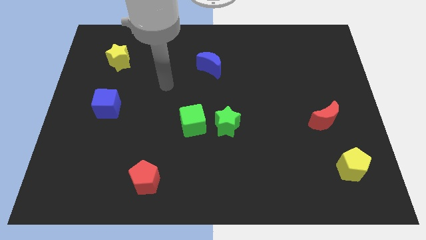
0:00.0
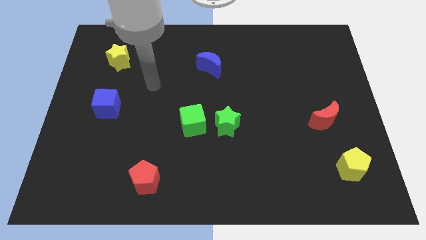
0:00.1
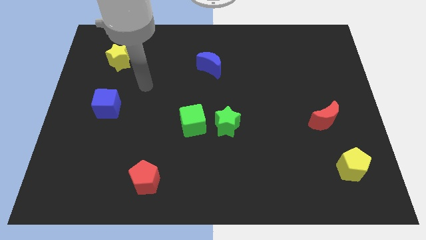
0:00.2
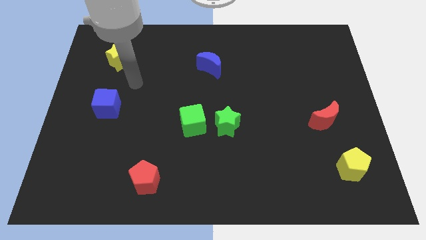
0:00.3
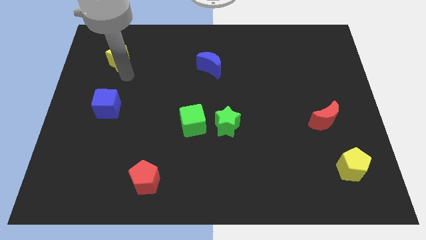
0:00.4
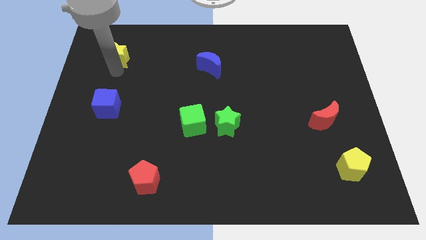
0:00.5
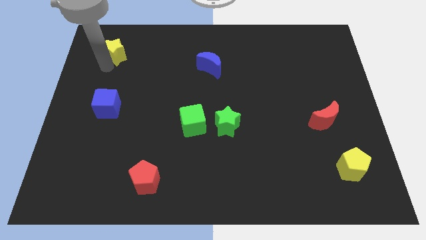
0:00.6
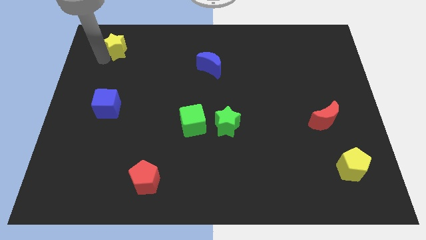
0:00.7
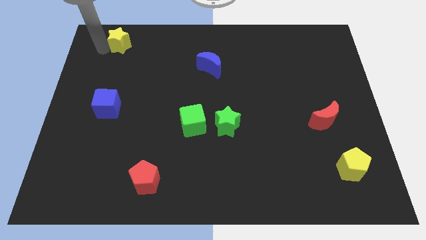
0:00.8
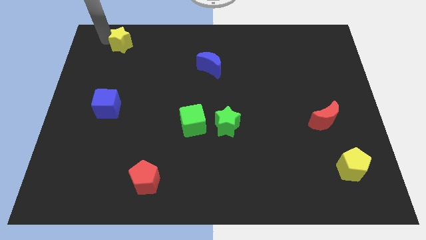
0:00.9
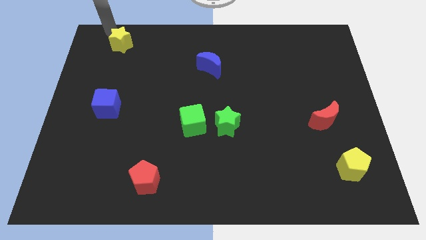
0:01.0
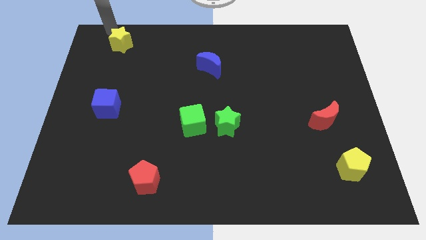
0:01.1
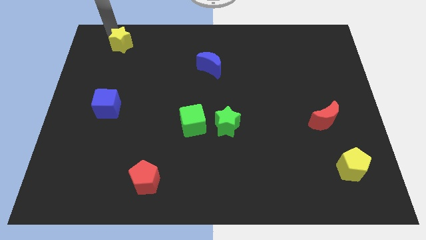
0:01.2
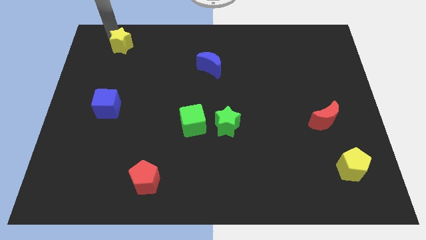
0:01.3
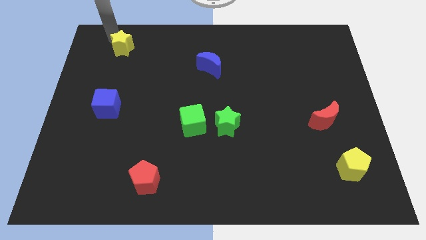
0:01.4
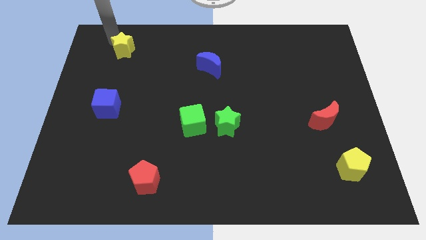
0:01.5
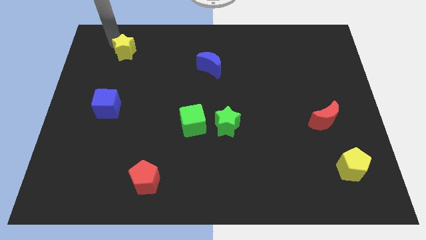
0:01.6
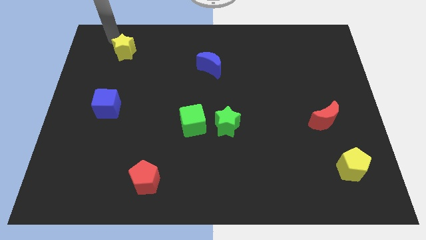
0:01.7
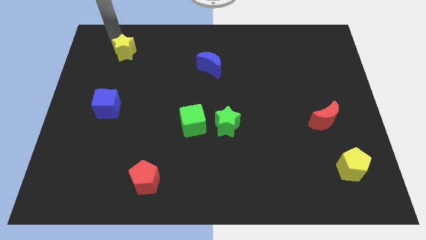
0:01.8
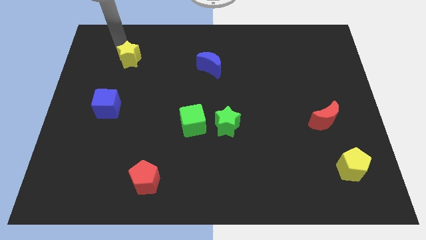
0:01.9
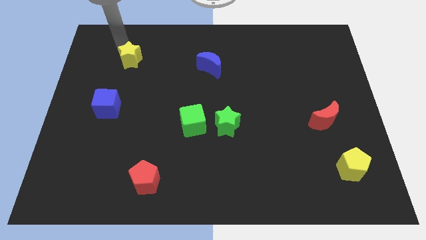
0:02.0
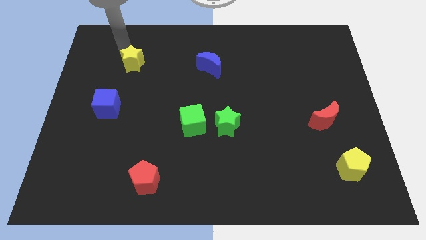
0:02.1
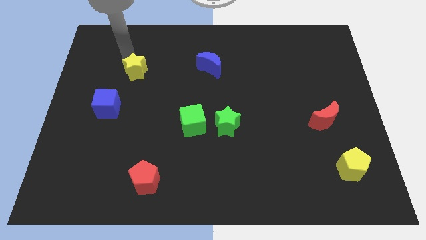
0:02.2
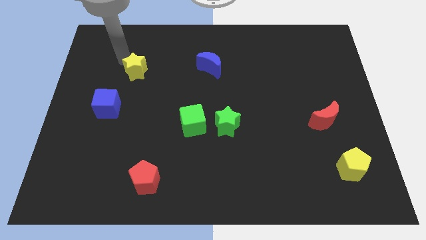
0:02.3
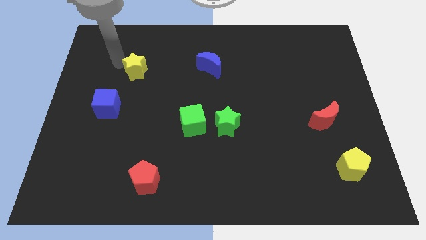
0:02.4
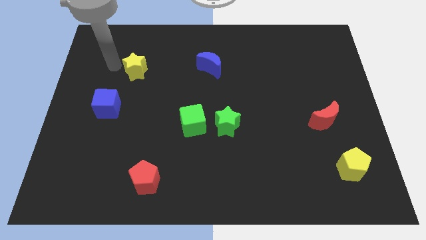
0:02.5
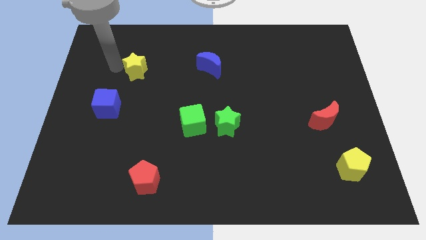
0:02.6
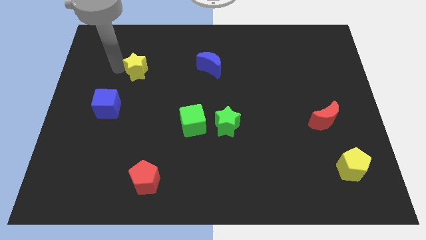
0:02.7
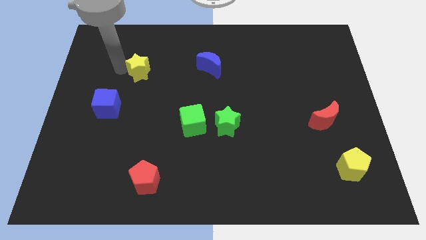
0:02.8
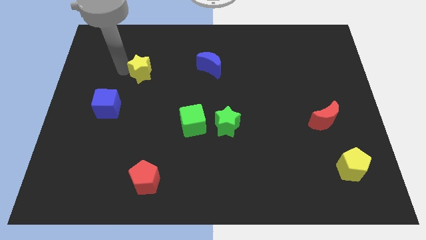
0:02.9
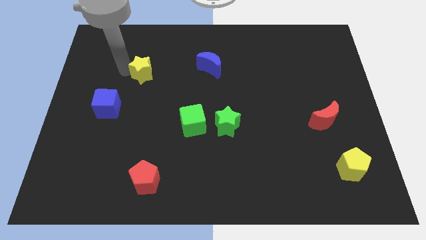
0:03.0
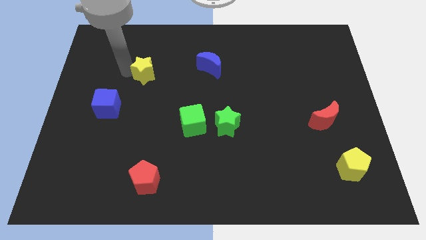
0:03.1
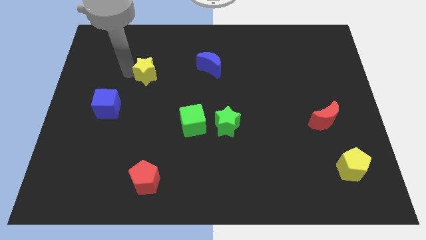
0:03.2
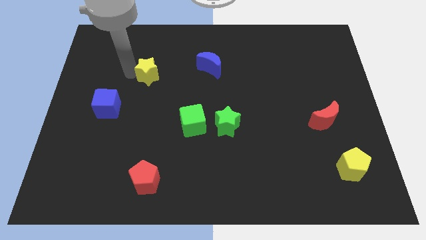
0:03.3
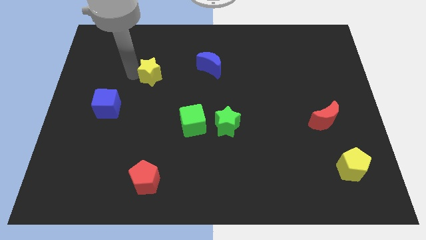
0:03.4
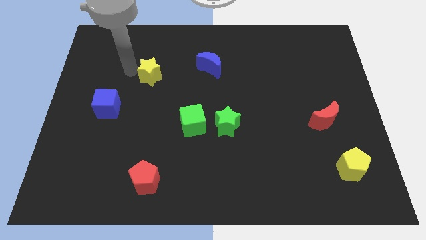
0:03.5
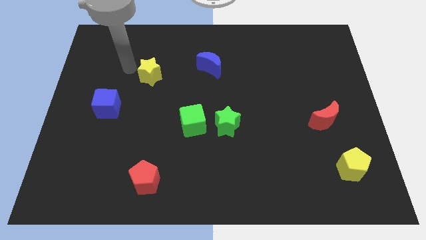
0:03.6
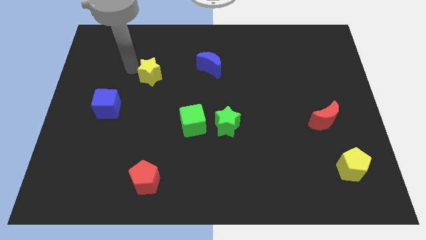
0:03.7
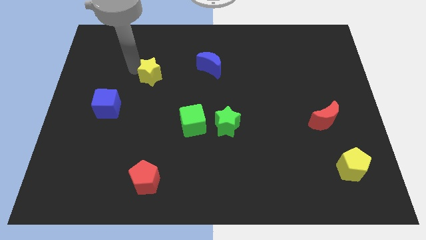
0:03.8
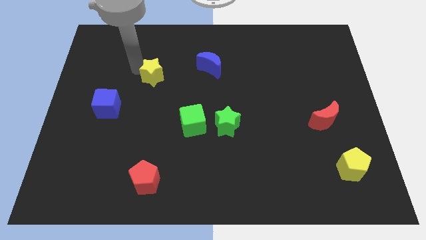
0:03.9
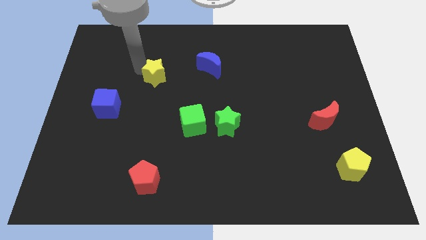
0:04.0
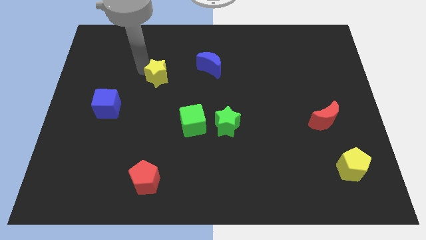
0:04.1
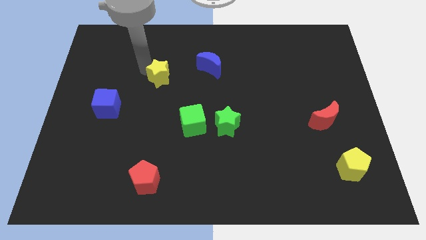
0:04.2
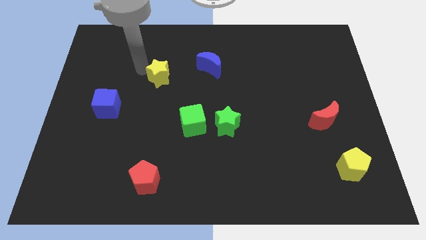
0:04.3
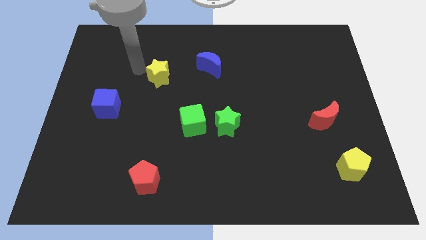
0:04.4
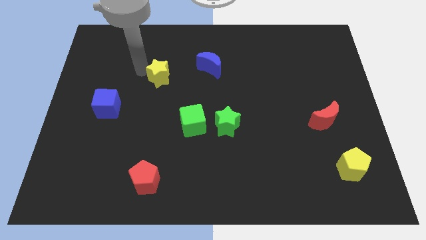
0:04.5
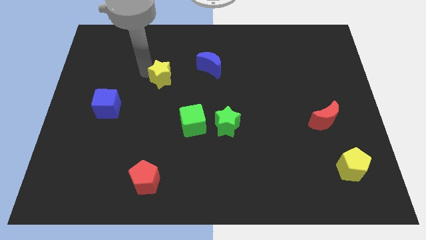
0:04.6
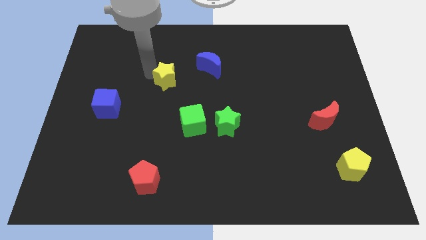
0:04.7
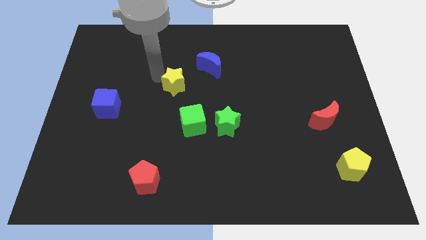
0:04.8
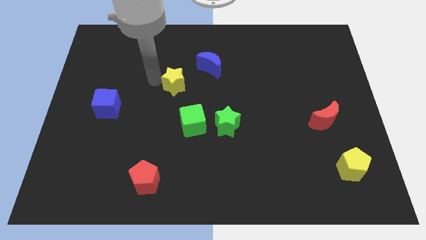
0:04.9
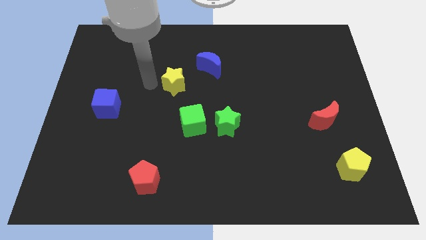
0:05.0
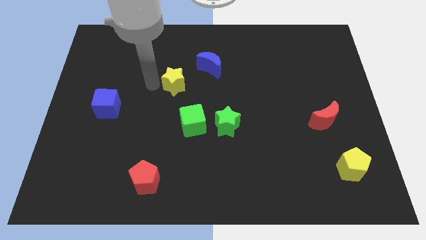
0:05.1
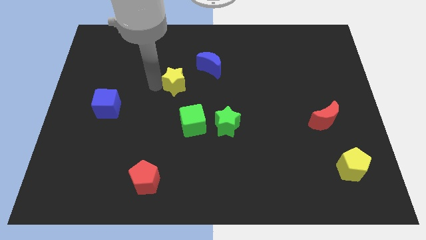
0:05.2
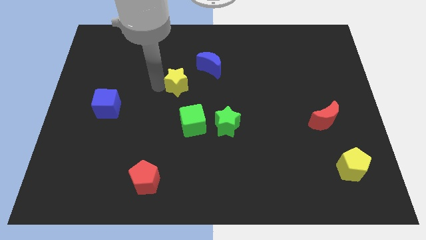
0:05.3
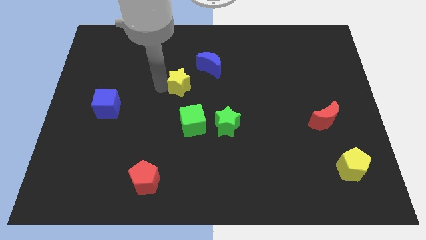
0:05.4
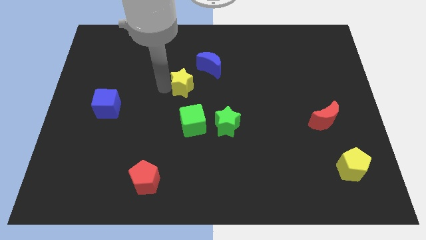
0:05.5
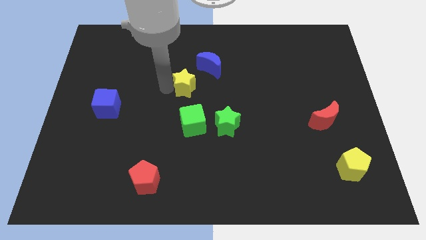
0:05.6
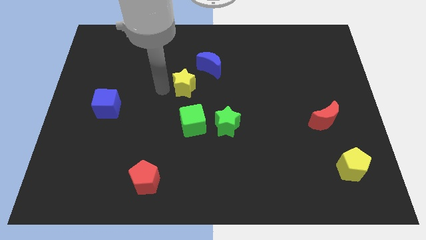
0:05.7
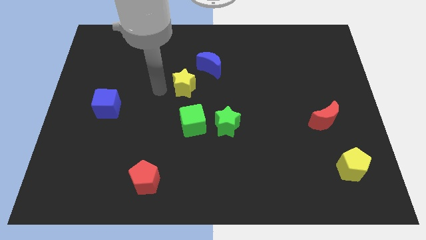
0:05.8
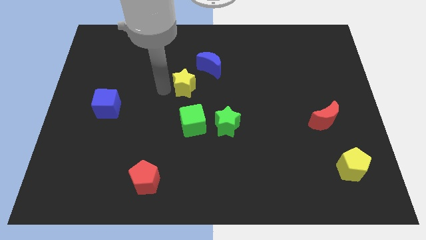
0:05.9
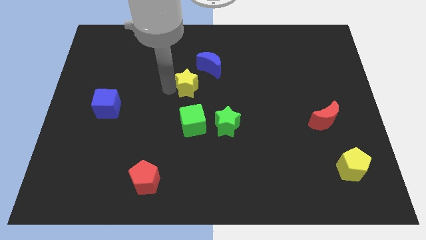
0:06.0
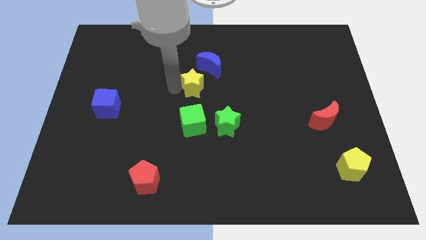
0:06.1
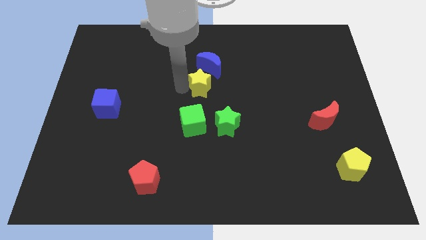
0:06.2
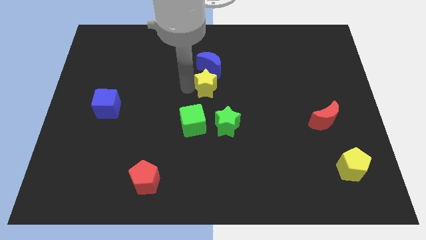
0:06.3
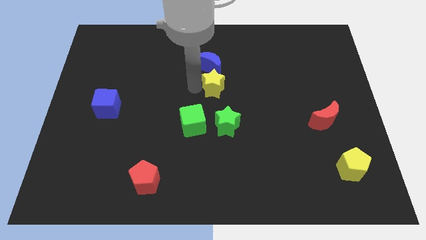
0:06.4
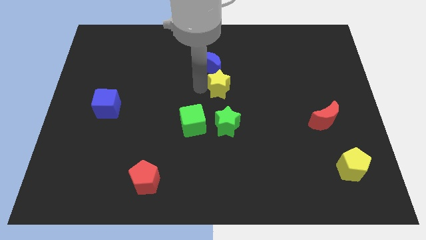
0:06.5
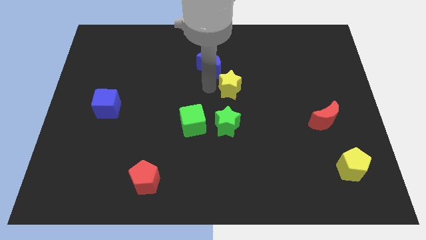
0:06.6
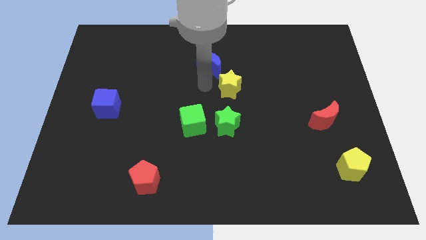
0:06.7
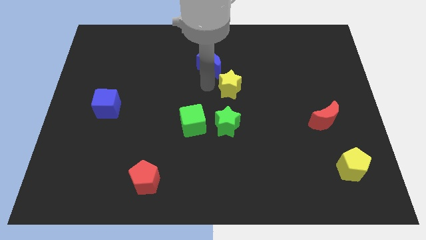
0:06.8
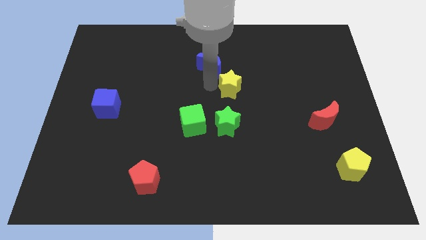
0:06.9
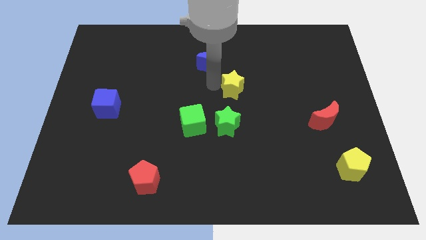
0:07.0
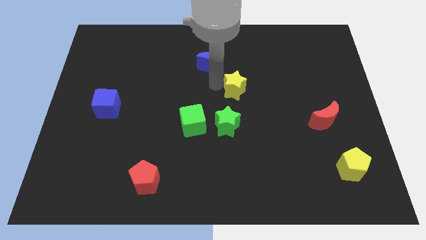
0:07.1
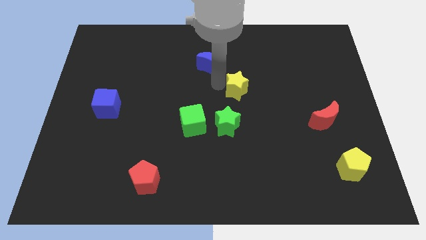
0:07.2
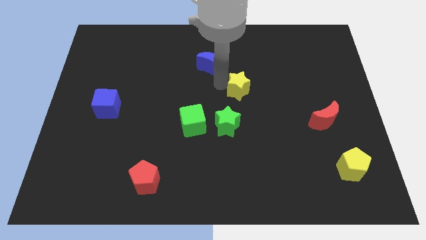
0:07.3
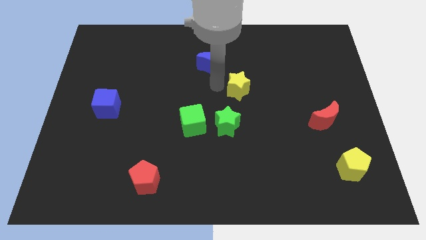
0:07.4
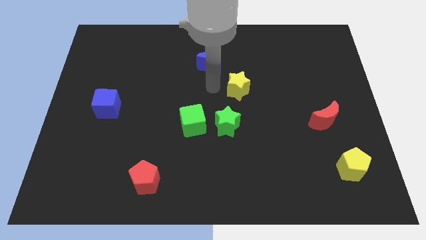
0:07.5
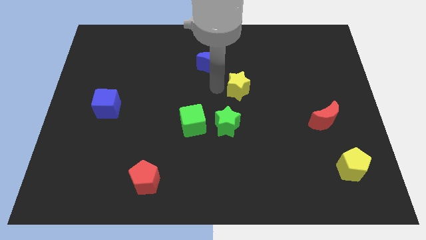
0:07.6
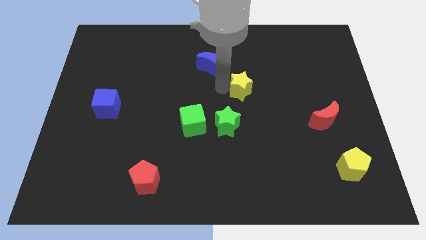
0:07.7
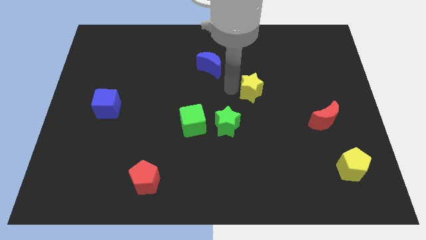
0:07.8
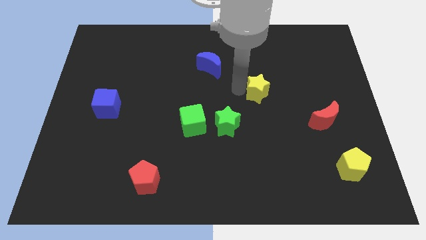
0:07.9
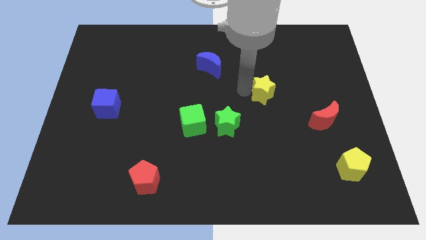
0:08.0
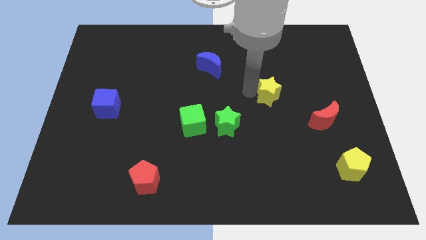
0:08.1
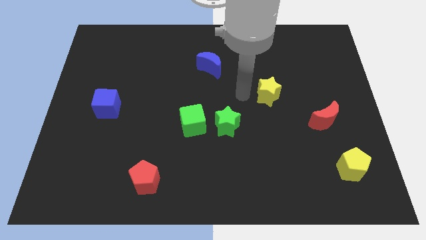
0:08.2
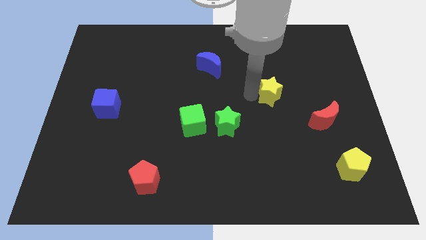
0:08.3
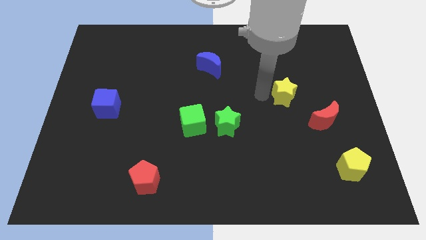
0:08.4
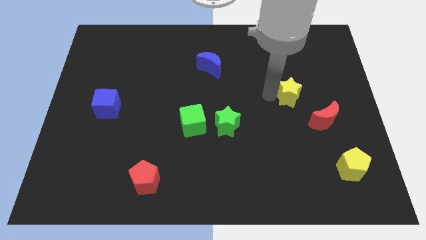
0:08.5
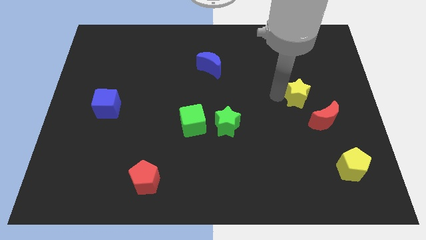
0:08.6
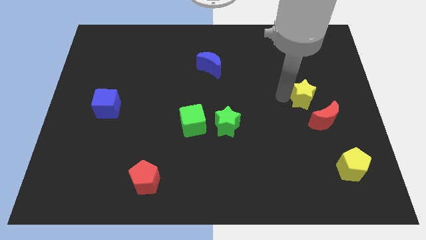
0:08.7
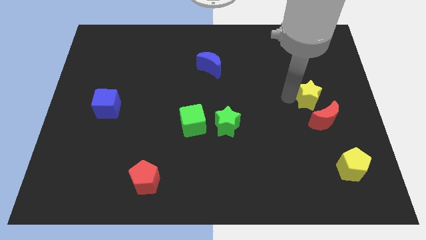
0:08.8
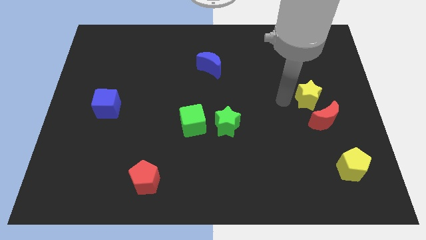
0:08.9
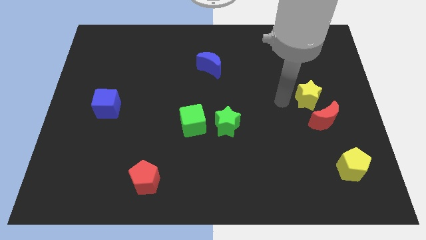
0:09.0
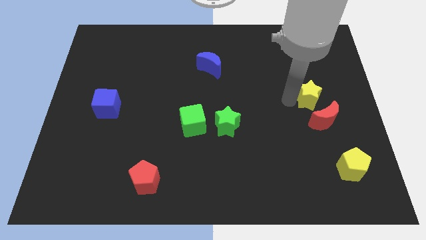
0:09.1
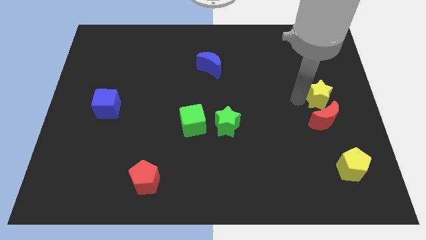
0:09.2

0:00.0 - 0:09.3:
push the yellow star to the right side
